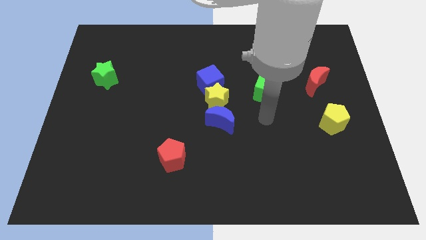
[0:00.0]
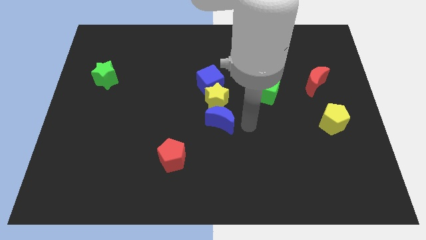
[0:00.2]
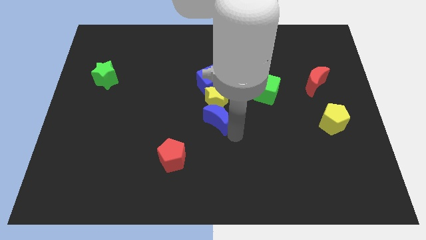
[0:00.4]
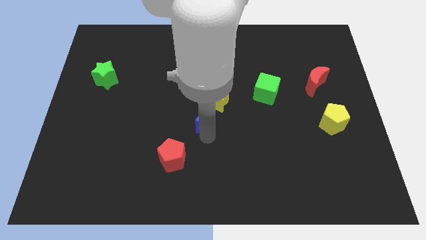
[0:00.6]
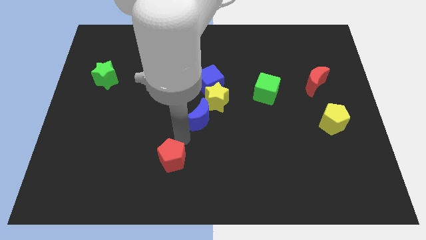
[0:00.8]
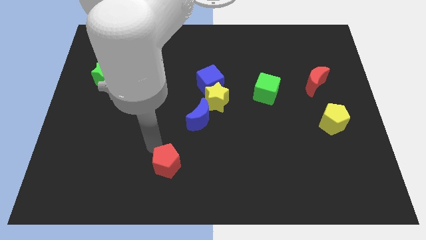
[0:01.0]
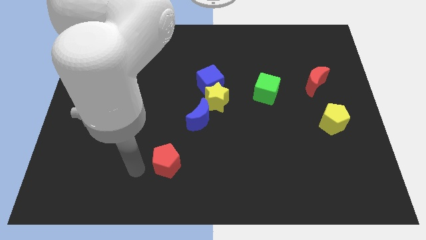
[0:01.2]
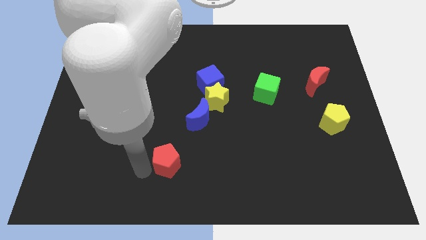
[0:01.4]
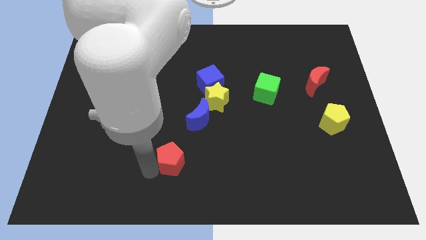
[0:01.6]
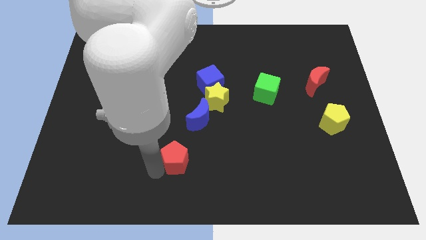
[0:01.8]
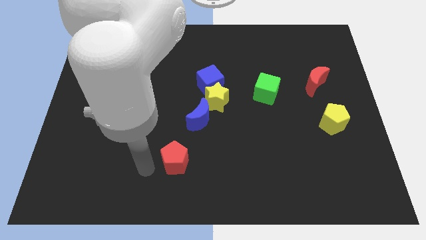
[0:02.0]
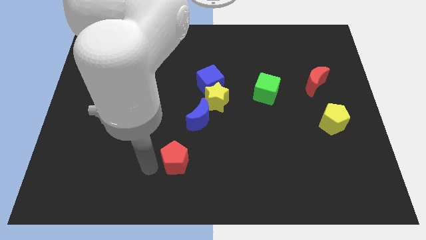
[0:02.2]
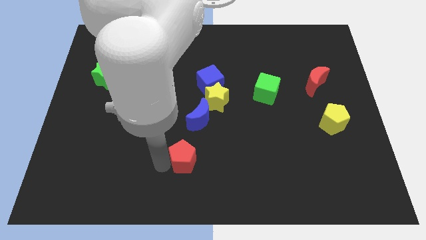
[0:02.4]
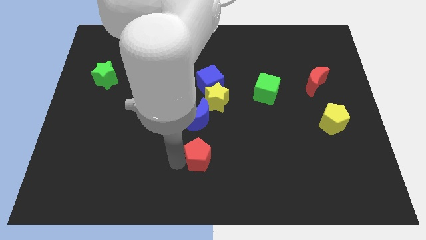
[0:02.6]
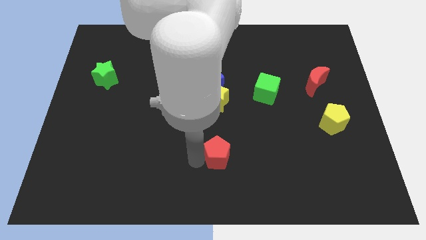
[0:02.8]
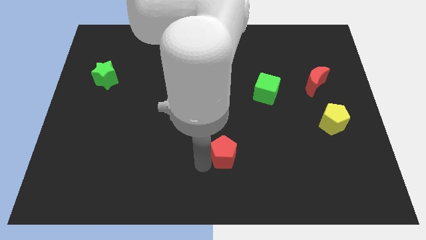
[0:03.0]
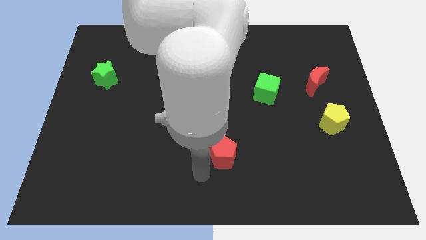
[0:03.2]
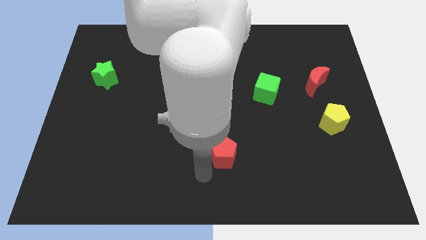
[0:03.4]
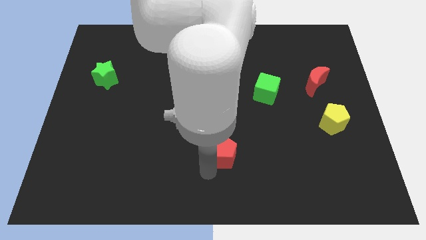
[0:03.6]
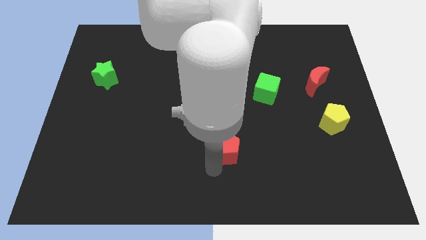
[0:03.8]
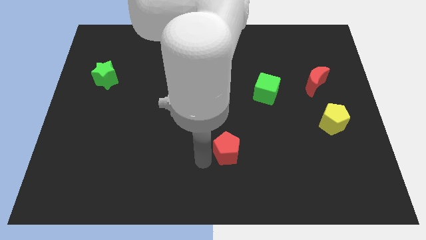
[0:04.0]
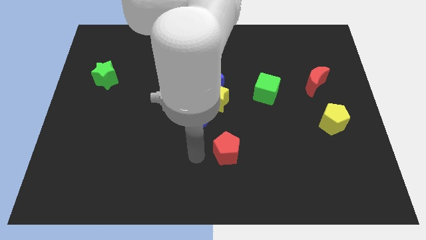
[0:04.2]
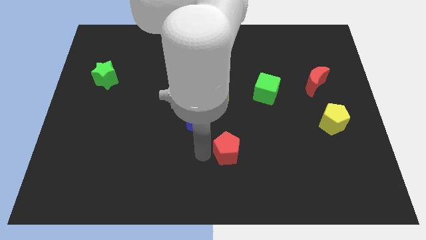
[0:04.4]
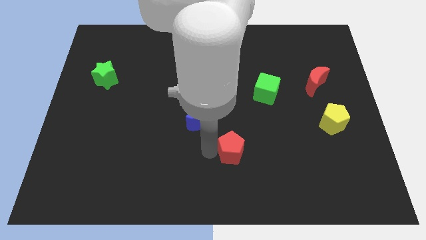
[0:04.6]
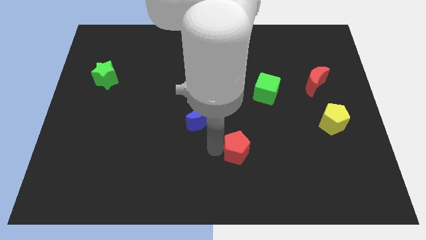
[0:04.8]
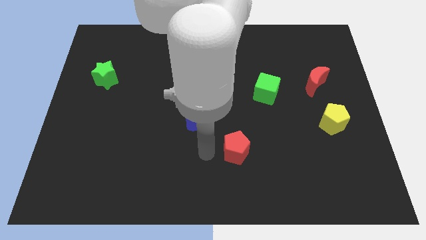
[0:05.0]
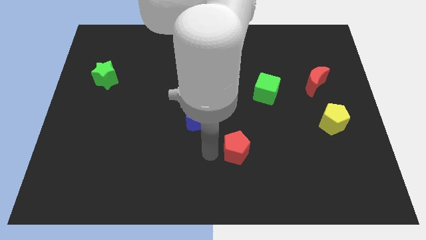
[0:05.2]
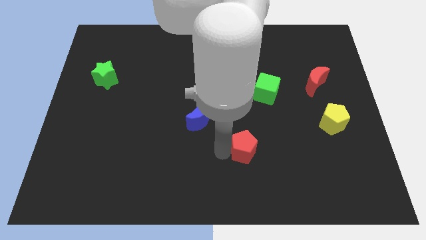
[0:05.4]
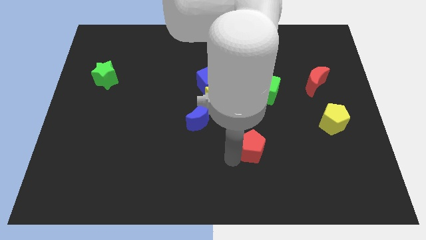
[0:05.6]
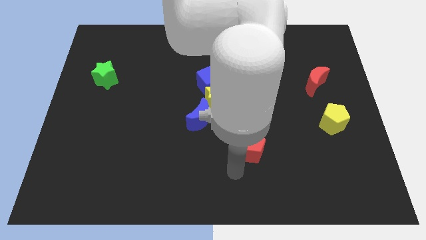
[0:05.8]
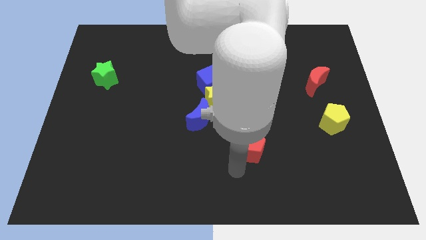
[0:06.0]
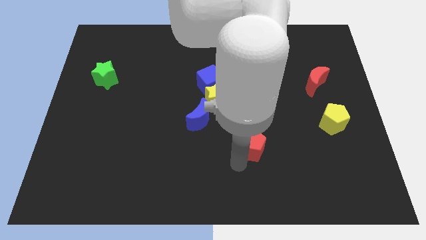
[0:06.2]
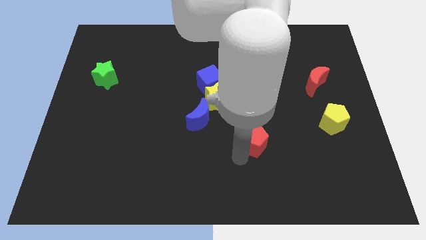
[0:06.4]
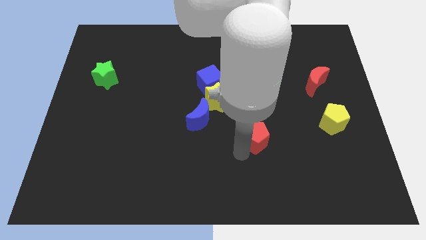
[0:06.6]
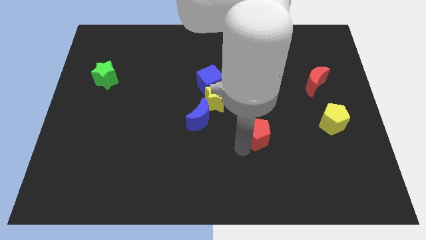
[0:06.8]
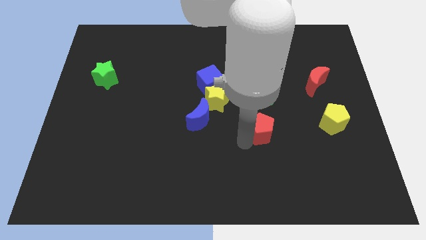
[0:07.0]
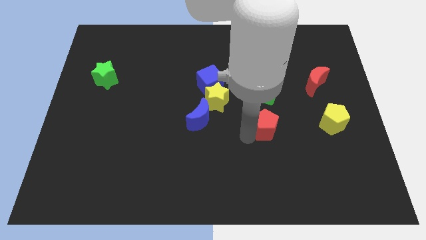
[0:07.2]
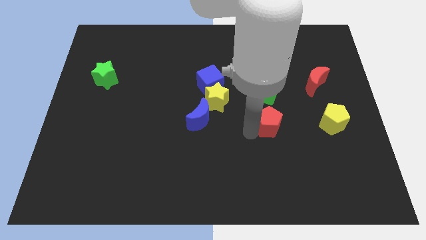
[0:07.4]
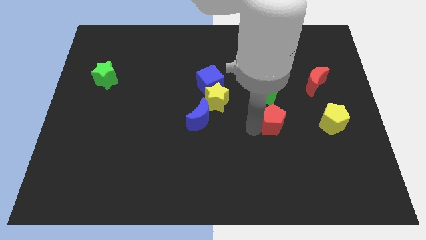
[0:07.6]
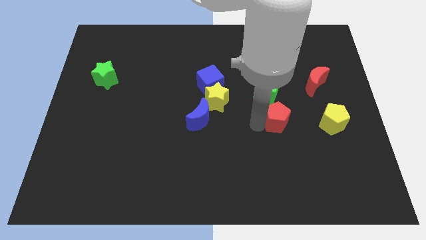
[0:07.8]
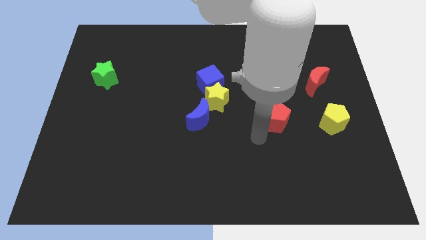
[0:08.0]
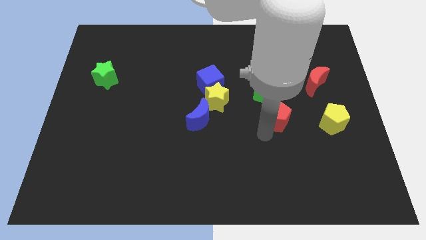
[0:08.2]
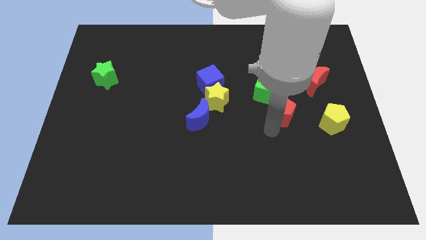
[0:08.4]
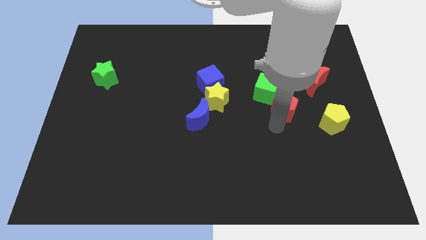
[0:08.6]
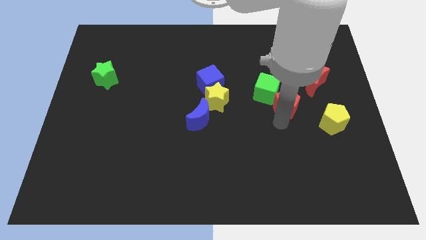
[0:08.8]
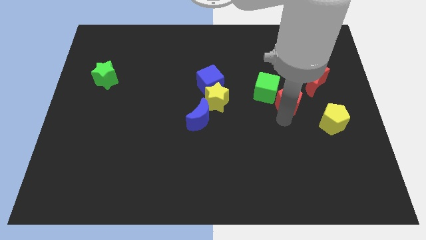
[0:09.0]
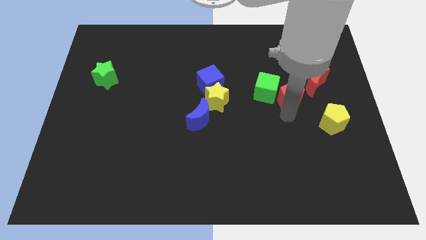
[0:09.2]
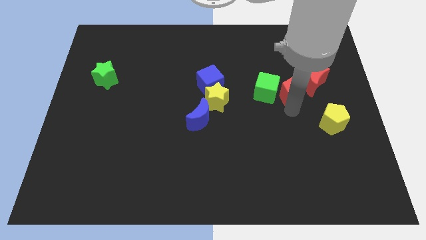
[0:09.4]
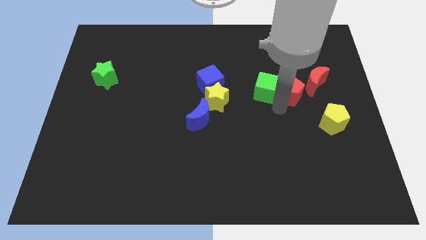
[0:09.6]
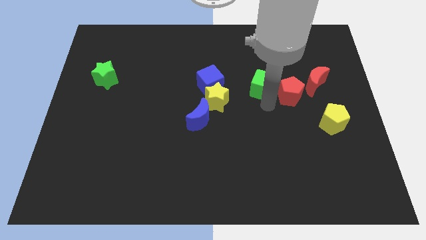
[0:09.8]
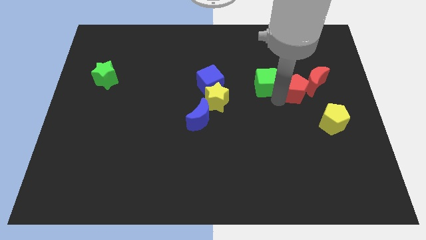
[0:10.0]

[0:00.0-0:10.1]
push the red pentagon close to the red moon

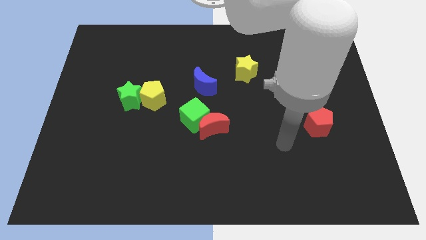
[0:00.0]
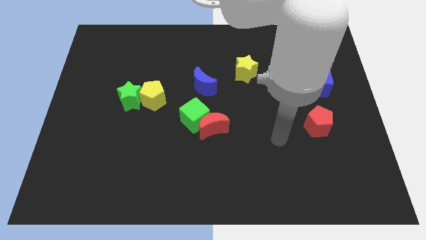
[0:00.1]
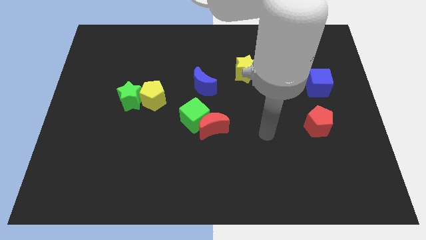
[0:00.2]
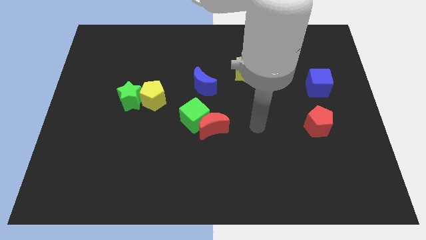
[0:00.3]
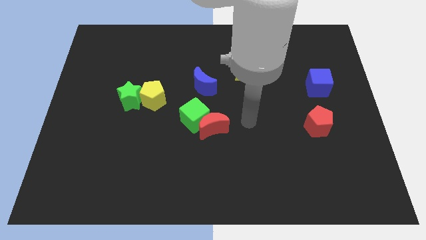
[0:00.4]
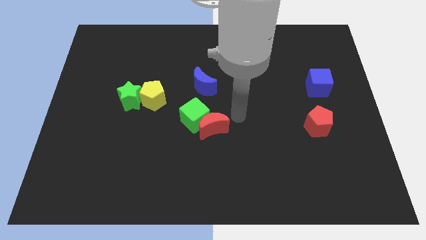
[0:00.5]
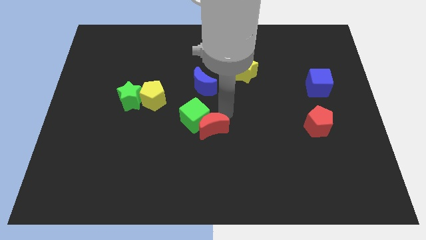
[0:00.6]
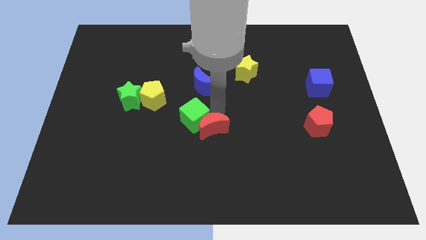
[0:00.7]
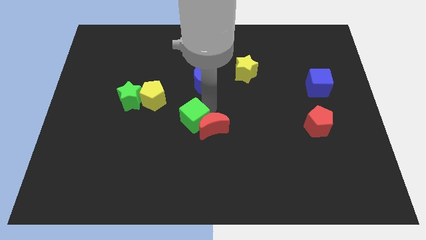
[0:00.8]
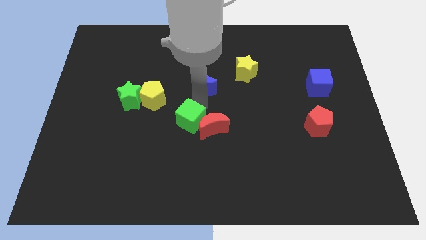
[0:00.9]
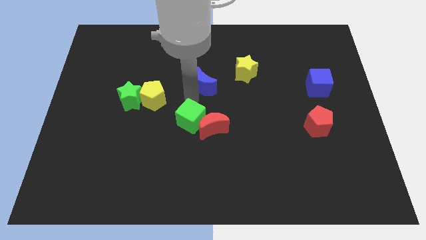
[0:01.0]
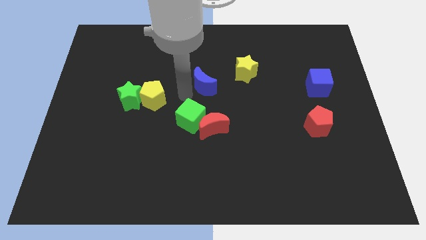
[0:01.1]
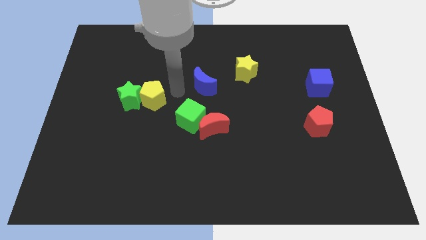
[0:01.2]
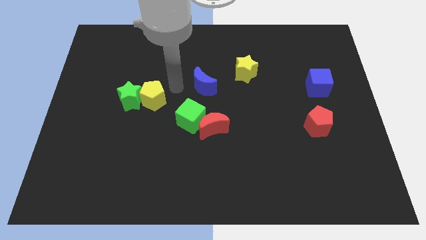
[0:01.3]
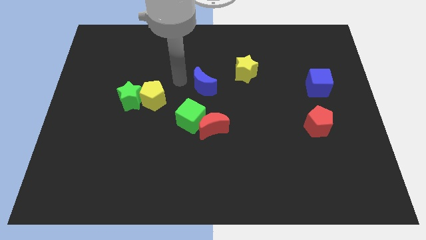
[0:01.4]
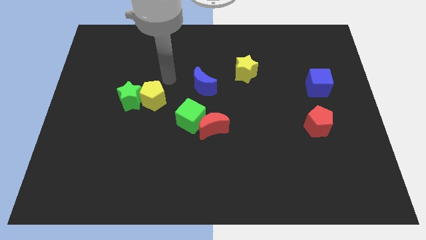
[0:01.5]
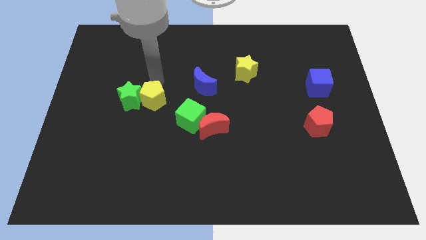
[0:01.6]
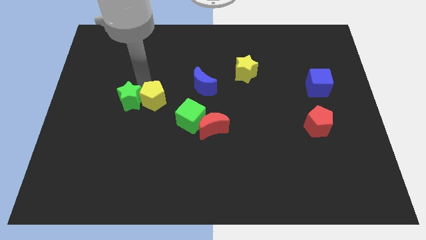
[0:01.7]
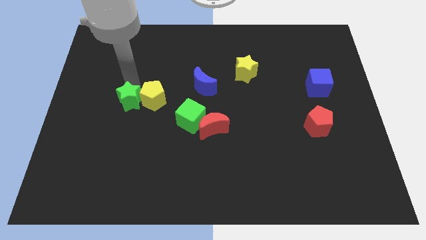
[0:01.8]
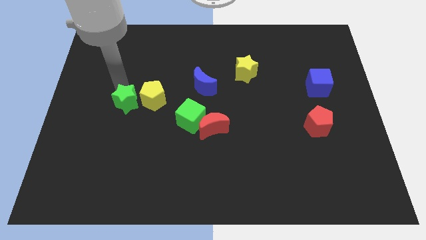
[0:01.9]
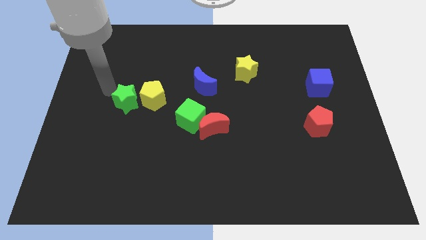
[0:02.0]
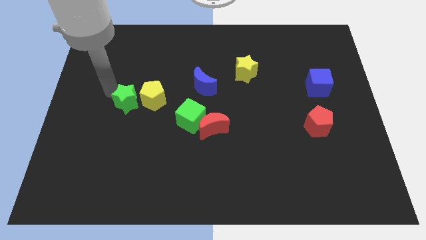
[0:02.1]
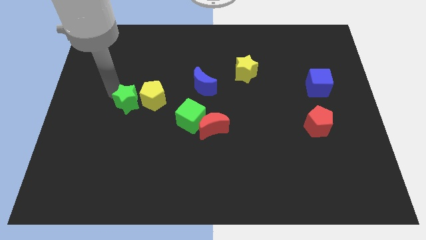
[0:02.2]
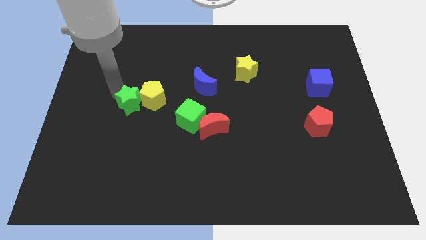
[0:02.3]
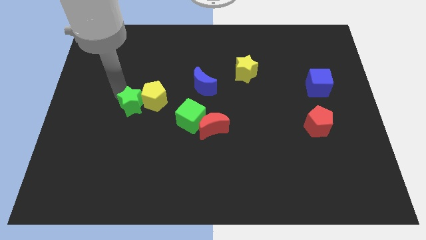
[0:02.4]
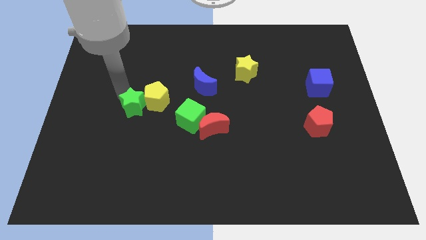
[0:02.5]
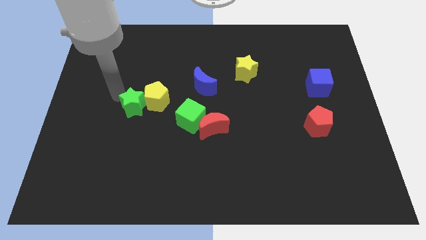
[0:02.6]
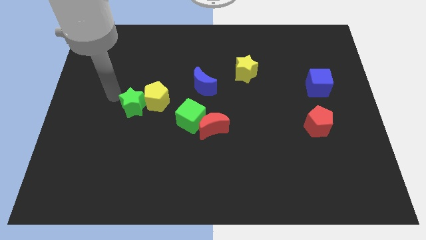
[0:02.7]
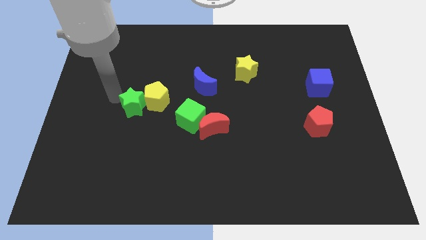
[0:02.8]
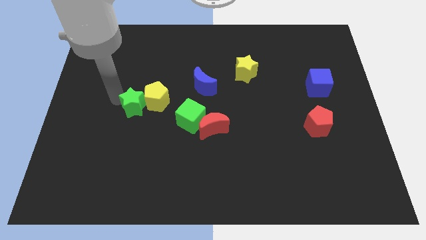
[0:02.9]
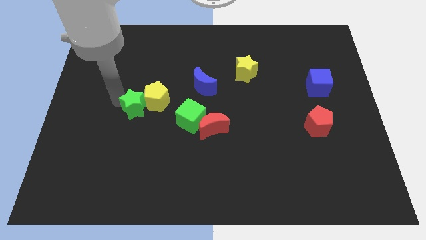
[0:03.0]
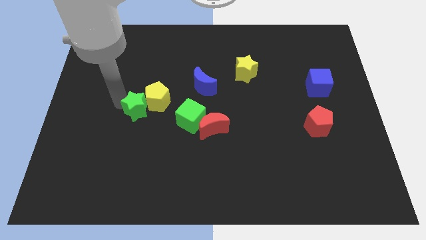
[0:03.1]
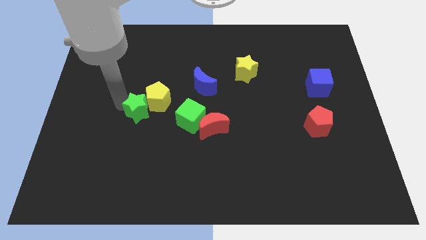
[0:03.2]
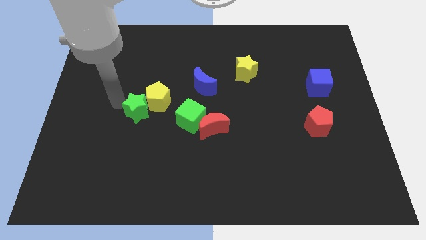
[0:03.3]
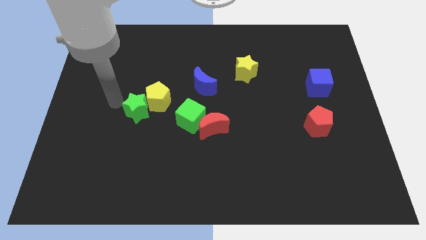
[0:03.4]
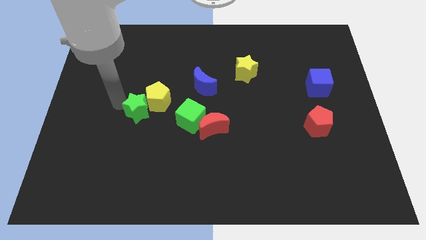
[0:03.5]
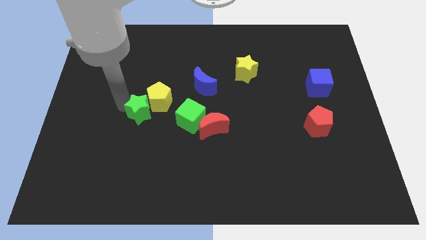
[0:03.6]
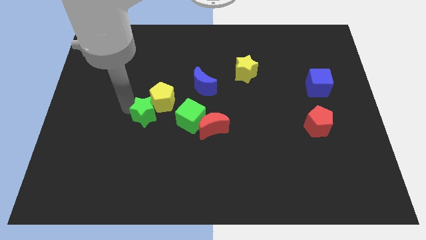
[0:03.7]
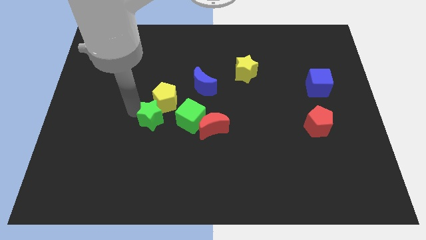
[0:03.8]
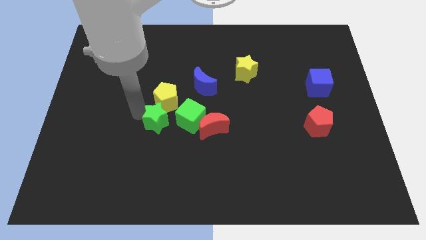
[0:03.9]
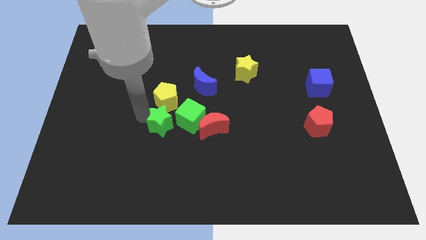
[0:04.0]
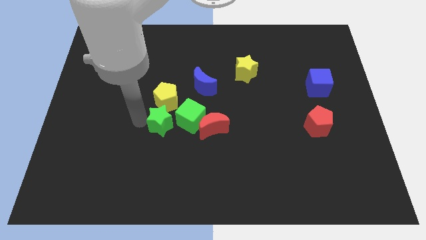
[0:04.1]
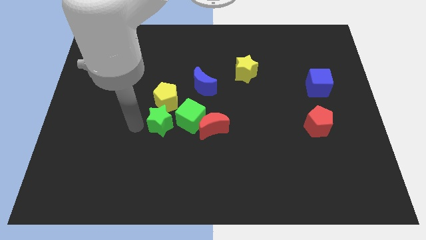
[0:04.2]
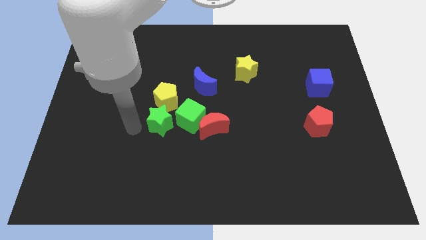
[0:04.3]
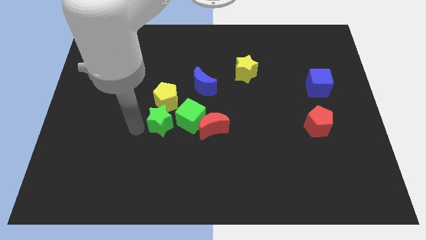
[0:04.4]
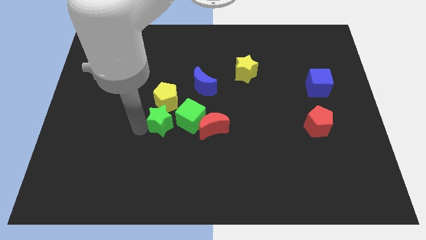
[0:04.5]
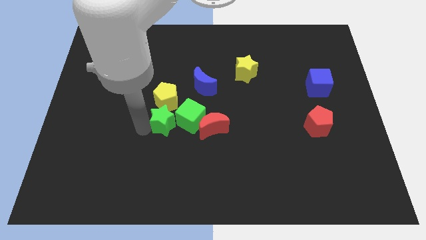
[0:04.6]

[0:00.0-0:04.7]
move the green star next to the green cube
